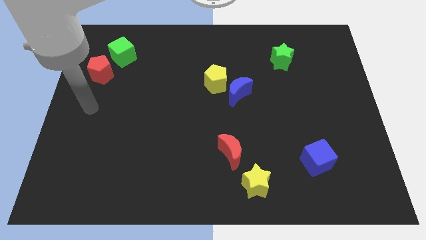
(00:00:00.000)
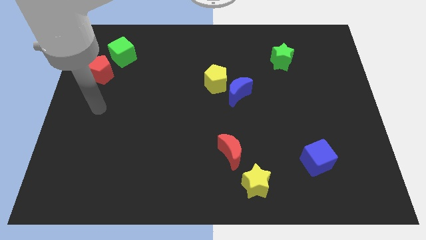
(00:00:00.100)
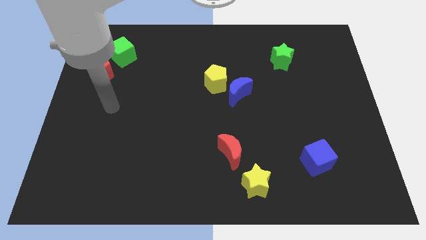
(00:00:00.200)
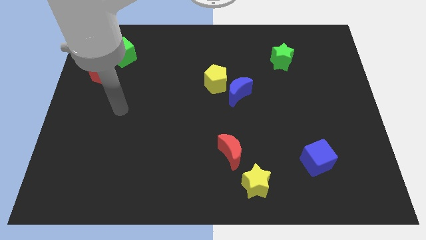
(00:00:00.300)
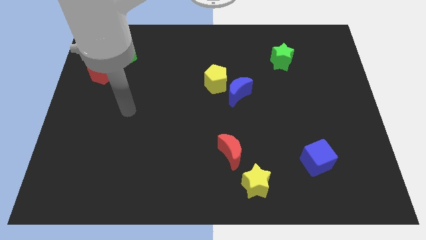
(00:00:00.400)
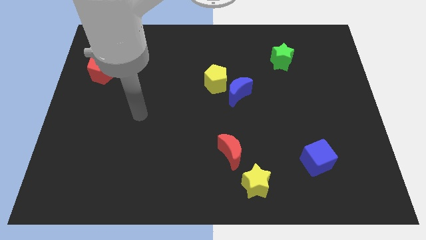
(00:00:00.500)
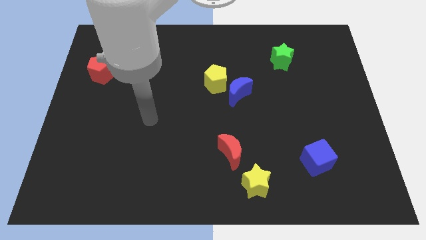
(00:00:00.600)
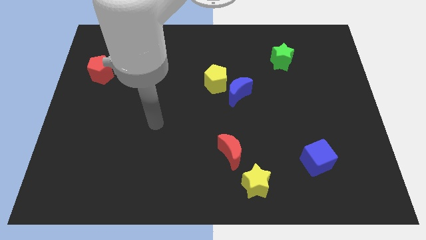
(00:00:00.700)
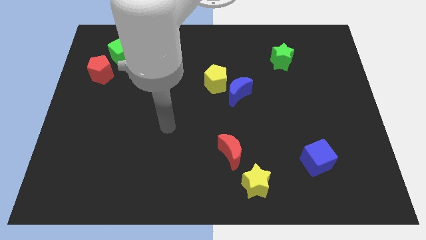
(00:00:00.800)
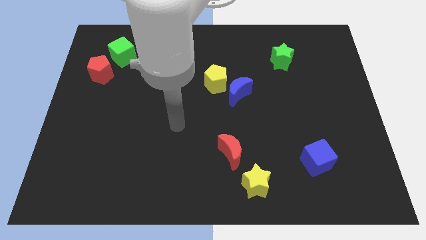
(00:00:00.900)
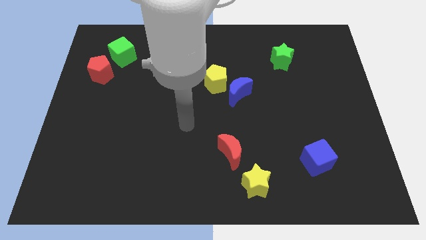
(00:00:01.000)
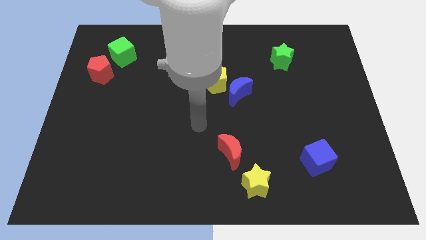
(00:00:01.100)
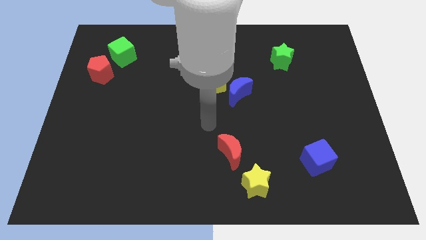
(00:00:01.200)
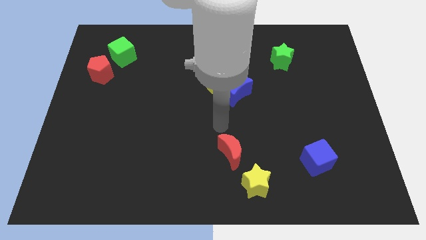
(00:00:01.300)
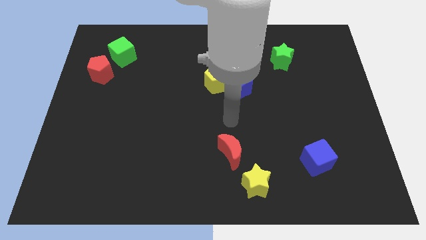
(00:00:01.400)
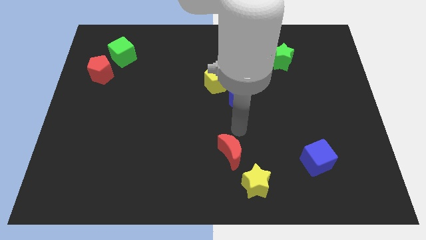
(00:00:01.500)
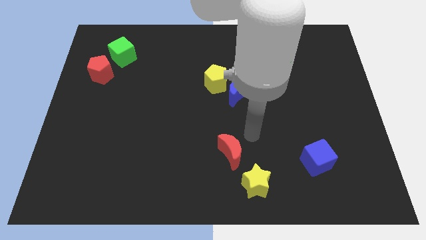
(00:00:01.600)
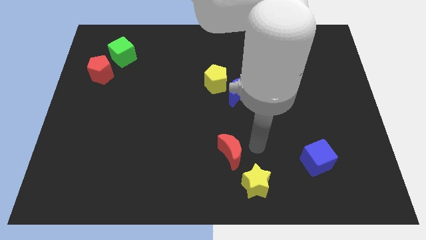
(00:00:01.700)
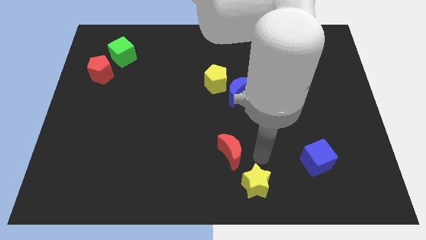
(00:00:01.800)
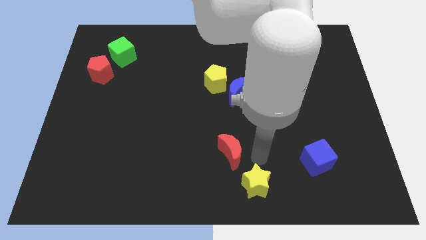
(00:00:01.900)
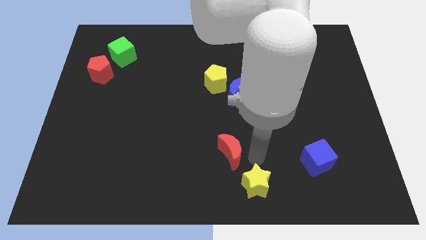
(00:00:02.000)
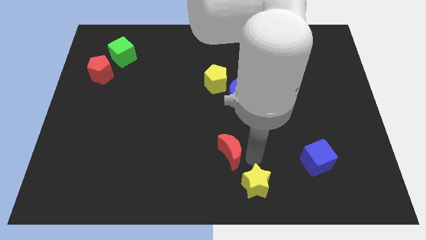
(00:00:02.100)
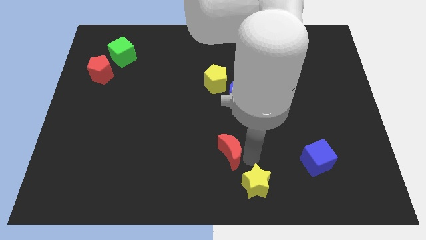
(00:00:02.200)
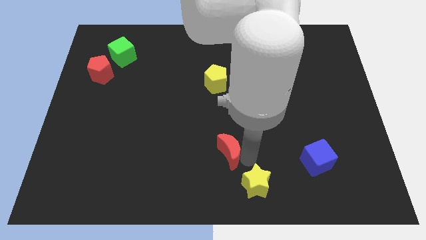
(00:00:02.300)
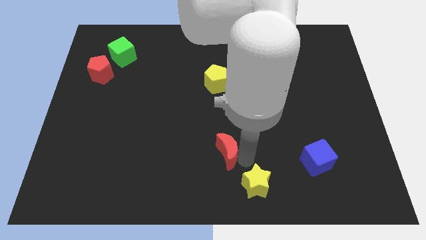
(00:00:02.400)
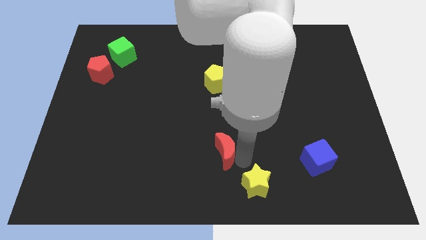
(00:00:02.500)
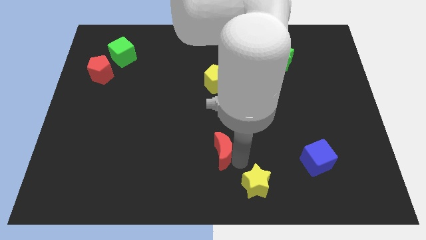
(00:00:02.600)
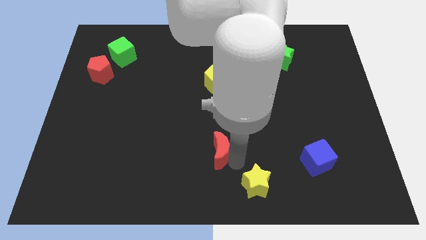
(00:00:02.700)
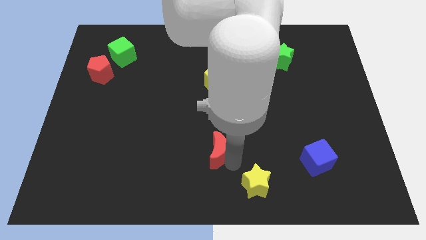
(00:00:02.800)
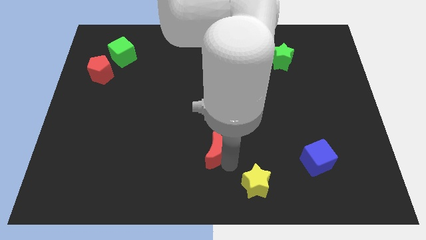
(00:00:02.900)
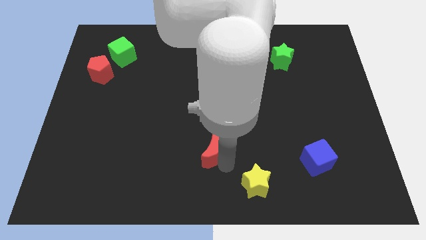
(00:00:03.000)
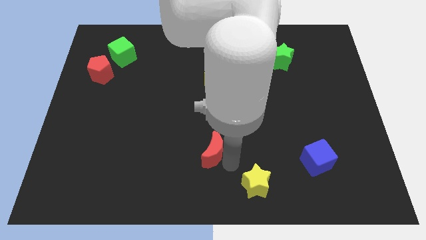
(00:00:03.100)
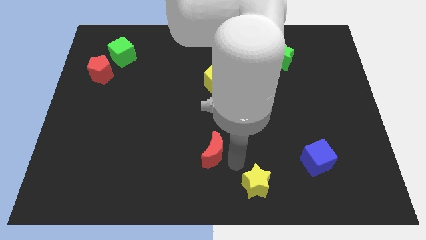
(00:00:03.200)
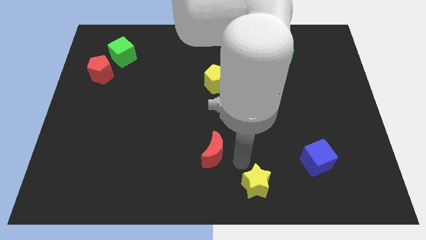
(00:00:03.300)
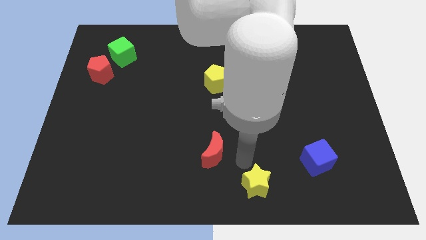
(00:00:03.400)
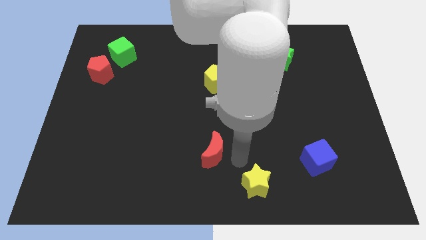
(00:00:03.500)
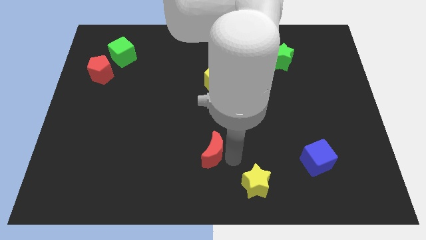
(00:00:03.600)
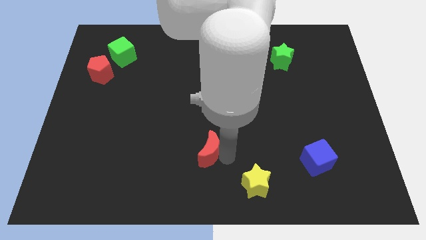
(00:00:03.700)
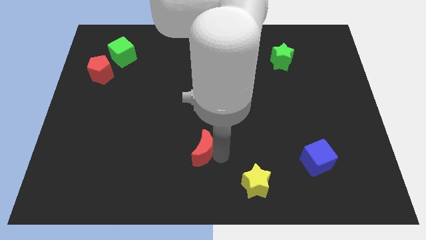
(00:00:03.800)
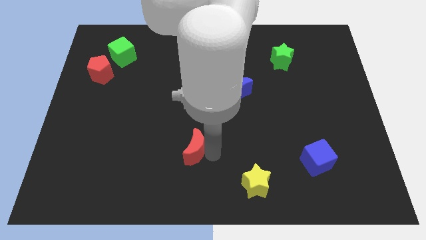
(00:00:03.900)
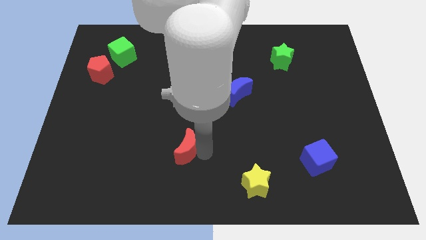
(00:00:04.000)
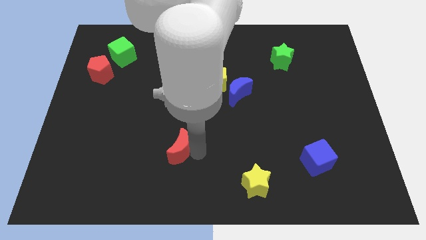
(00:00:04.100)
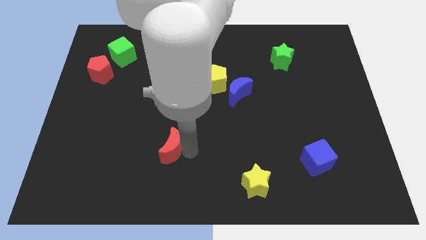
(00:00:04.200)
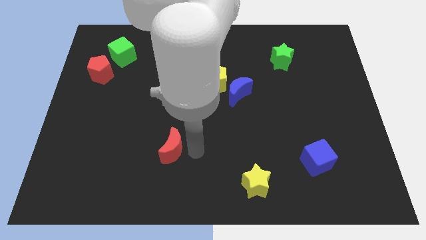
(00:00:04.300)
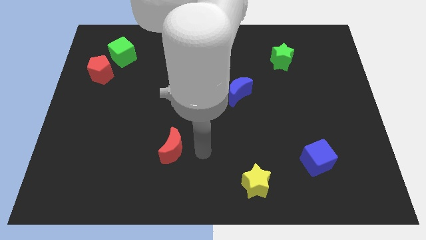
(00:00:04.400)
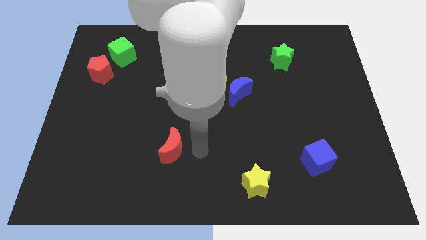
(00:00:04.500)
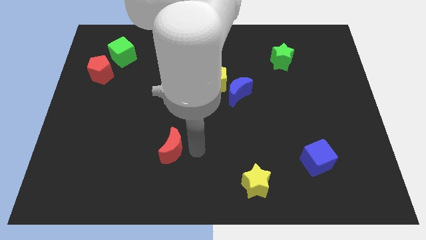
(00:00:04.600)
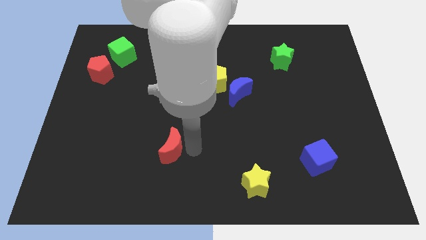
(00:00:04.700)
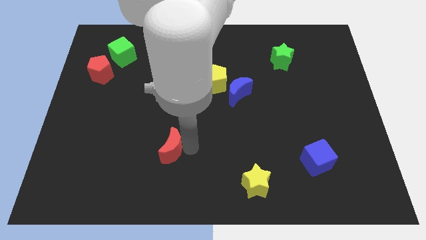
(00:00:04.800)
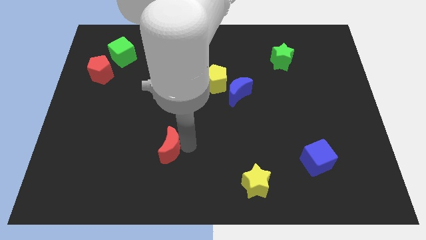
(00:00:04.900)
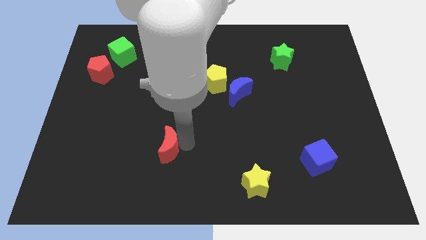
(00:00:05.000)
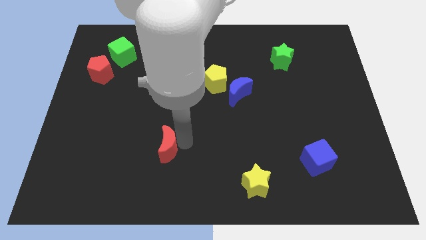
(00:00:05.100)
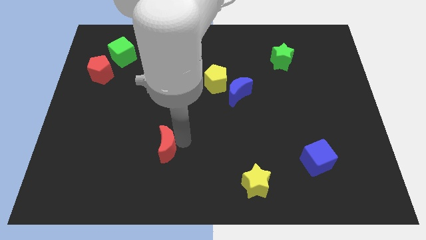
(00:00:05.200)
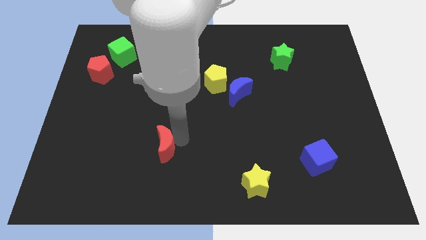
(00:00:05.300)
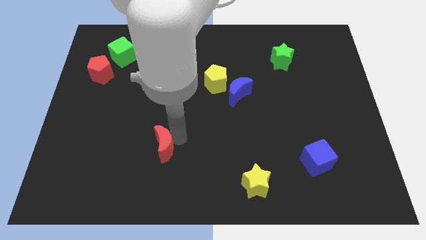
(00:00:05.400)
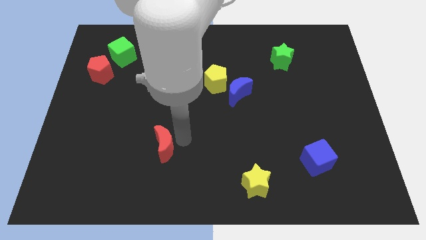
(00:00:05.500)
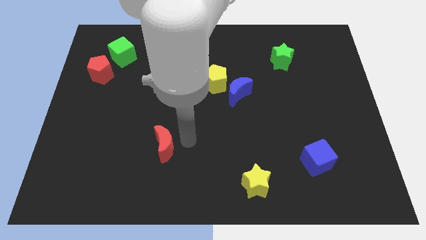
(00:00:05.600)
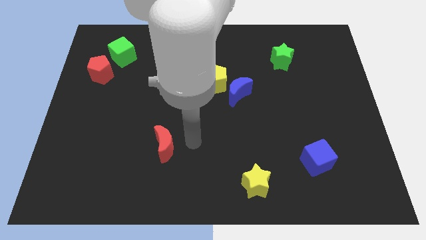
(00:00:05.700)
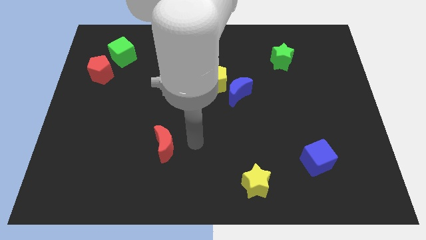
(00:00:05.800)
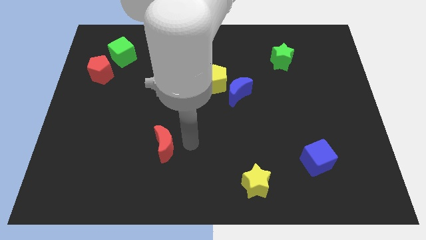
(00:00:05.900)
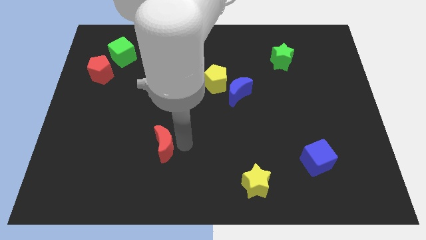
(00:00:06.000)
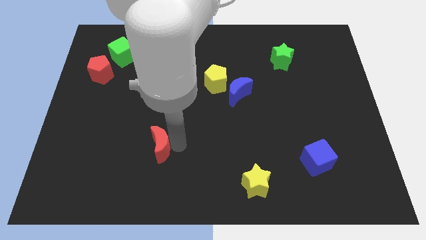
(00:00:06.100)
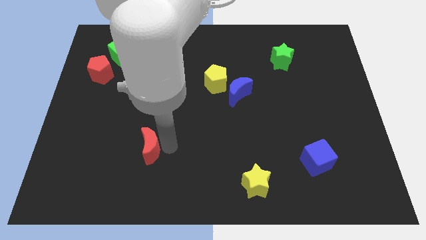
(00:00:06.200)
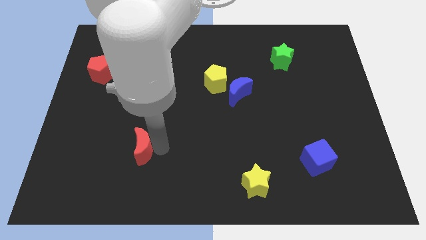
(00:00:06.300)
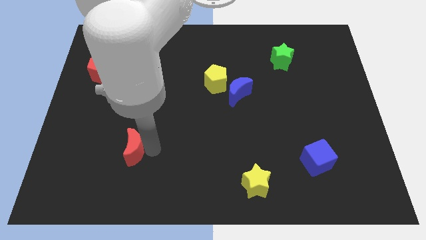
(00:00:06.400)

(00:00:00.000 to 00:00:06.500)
push the red moon to the left

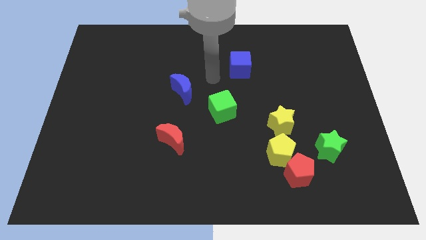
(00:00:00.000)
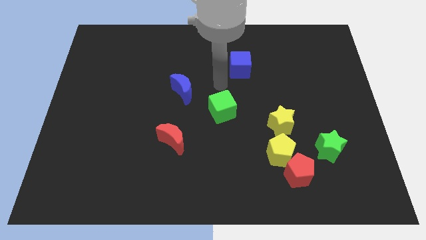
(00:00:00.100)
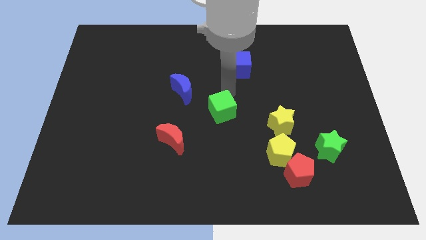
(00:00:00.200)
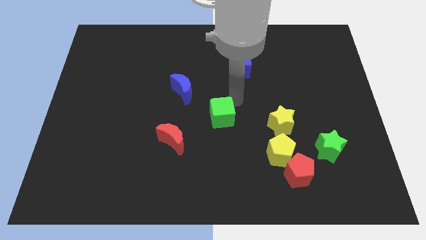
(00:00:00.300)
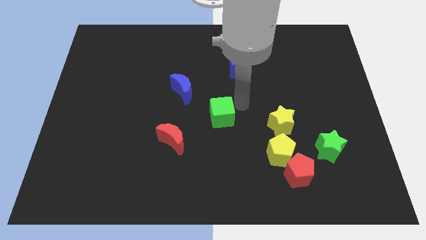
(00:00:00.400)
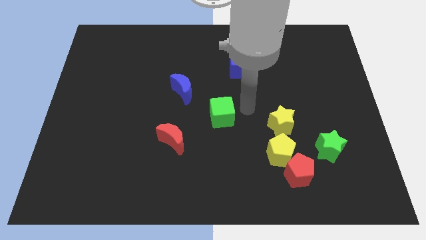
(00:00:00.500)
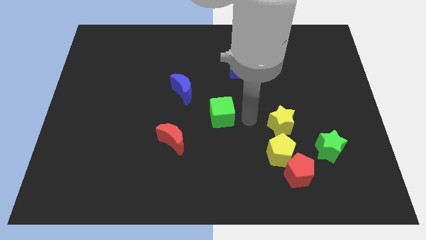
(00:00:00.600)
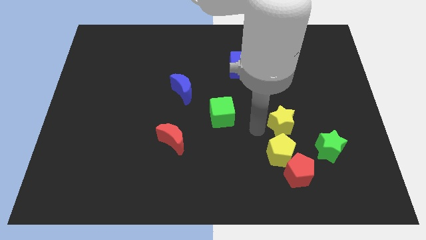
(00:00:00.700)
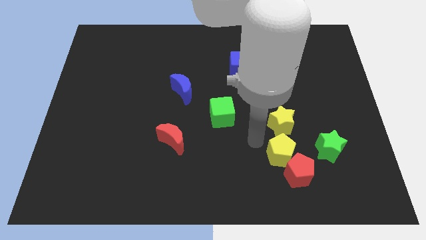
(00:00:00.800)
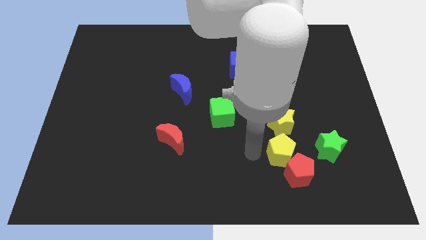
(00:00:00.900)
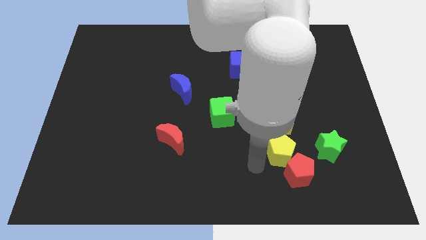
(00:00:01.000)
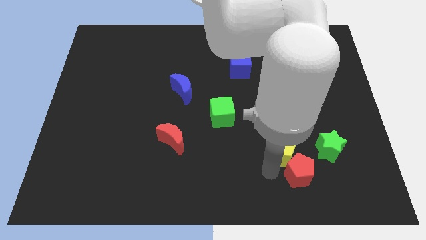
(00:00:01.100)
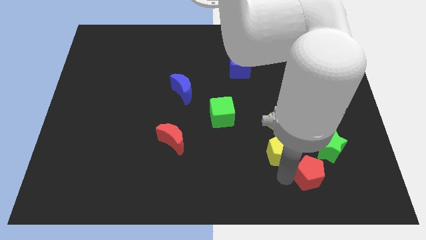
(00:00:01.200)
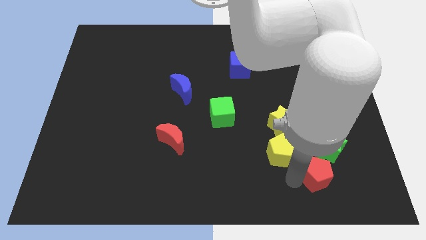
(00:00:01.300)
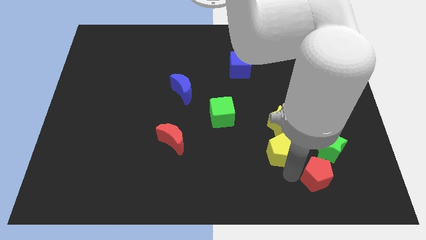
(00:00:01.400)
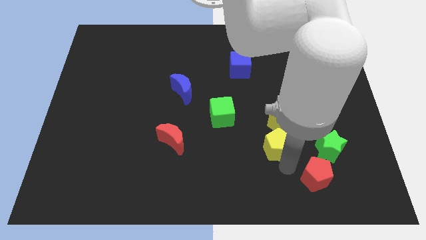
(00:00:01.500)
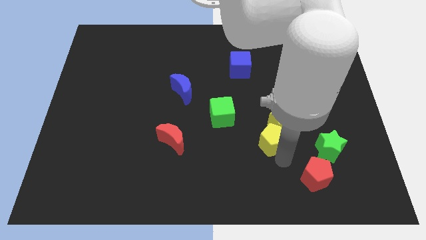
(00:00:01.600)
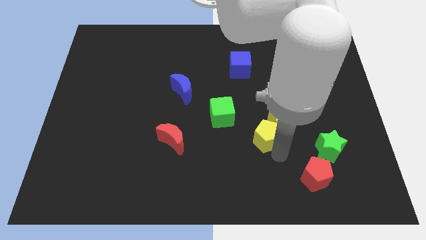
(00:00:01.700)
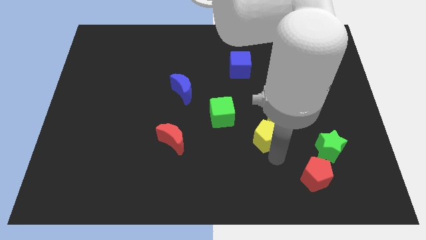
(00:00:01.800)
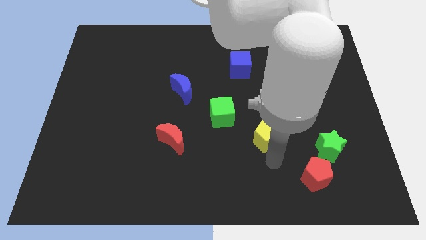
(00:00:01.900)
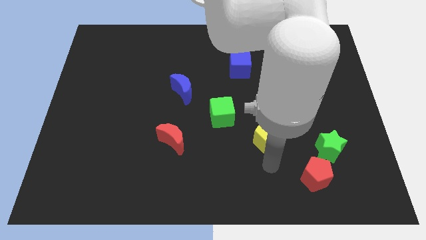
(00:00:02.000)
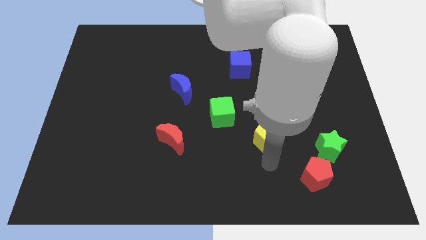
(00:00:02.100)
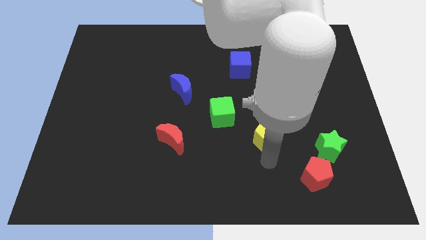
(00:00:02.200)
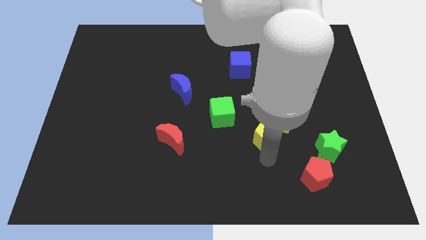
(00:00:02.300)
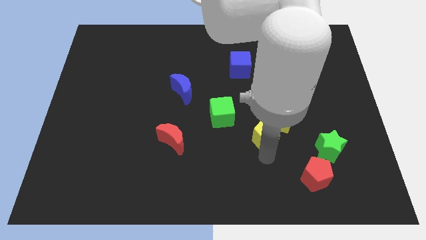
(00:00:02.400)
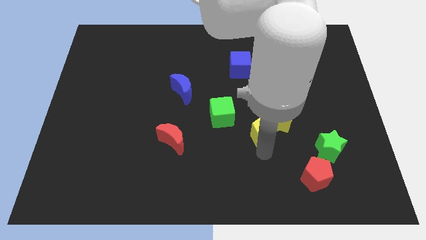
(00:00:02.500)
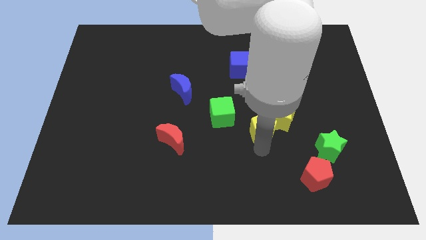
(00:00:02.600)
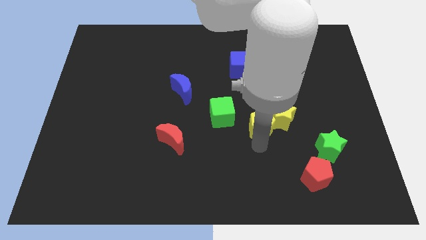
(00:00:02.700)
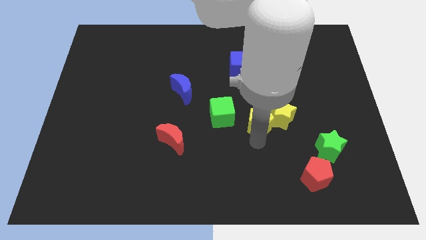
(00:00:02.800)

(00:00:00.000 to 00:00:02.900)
slightly slide the yellow pentagon up
